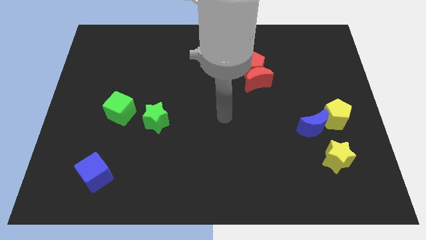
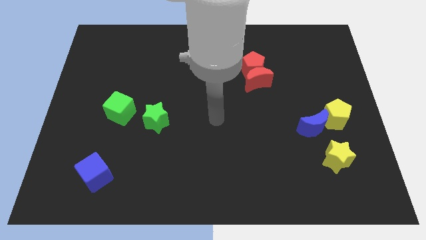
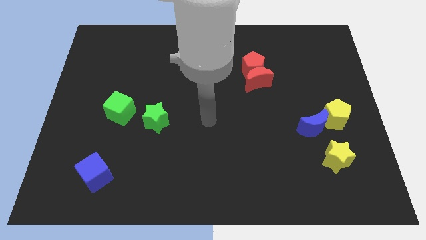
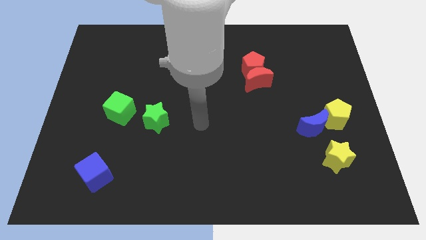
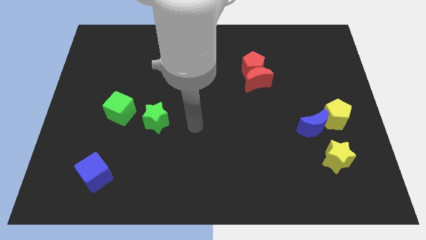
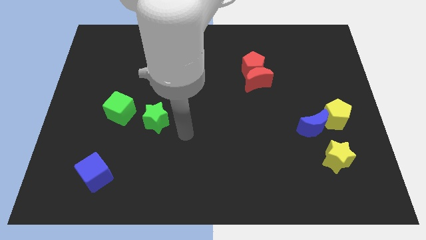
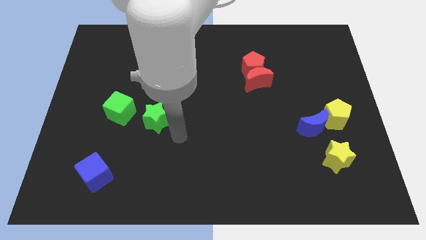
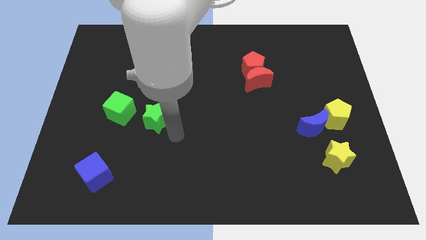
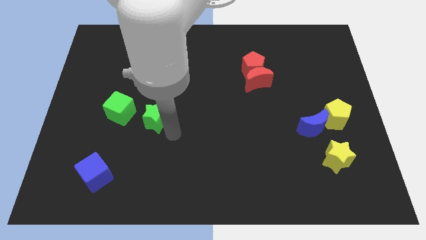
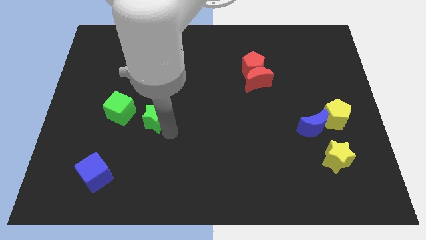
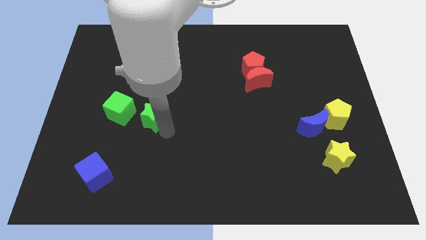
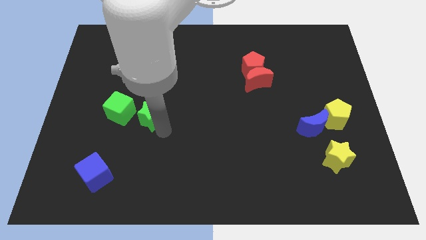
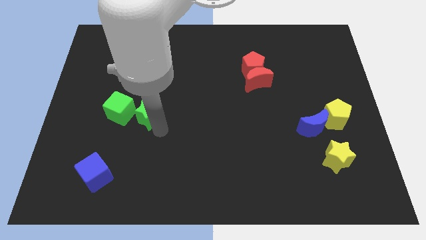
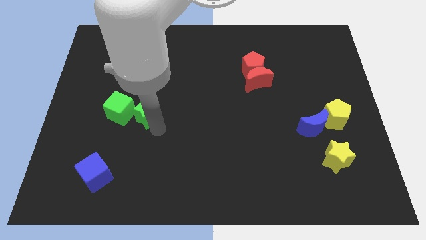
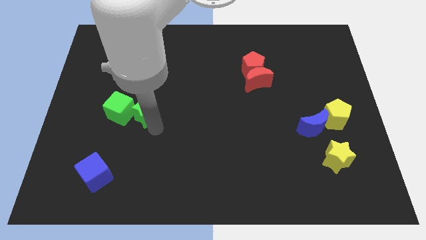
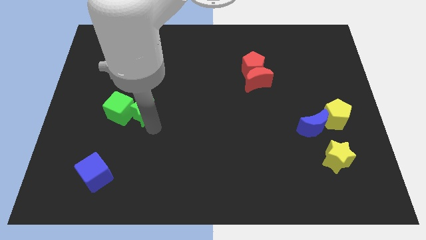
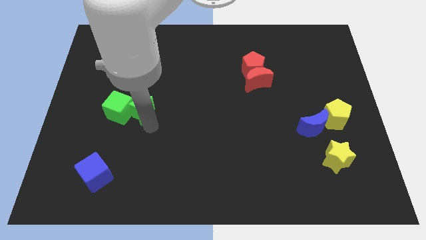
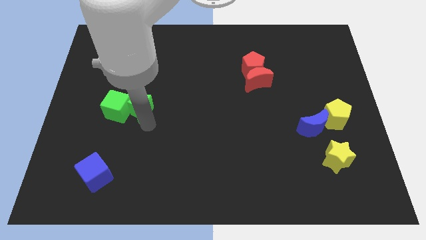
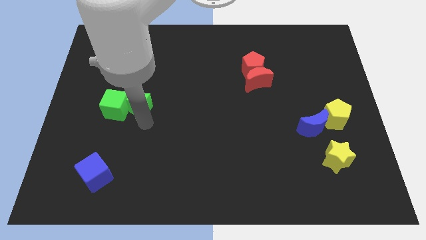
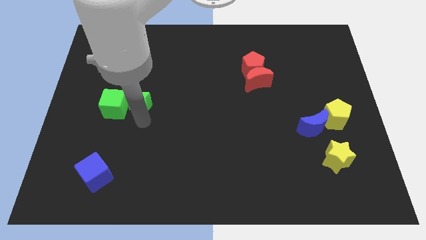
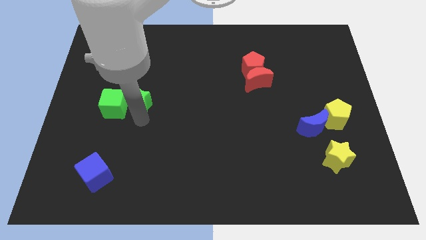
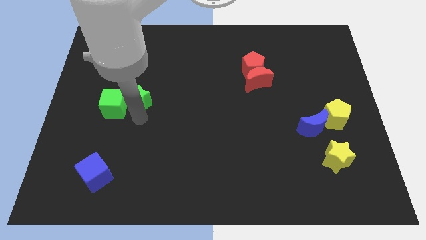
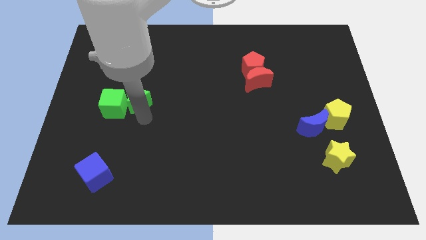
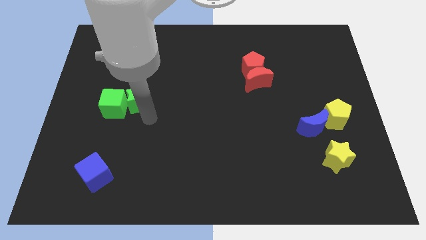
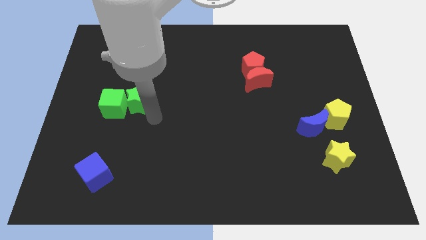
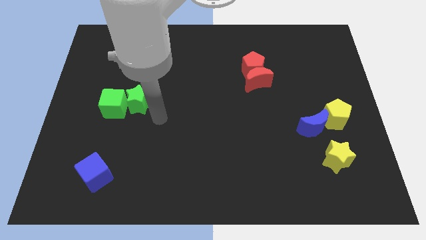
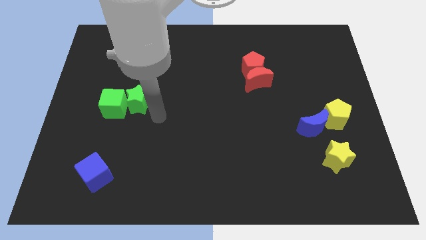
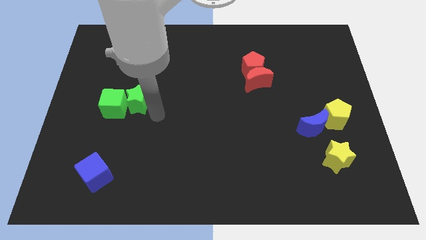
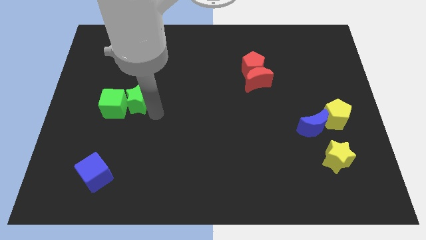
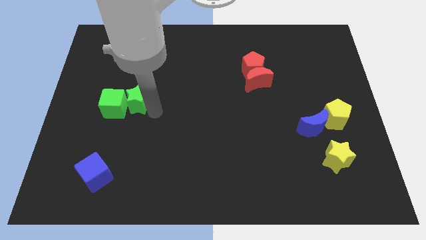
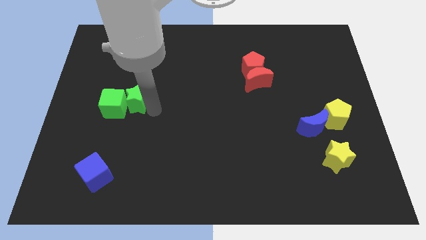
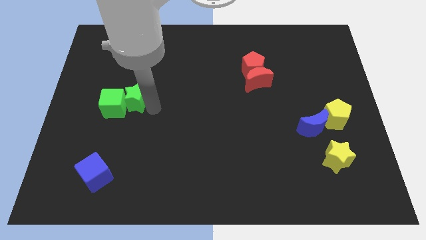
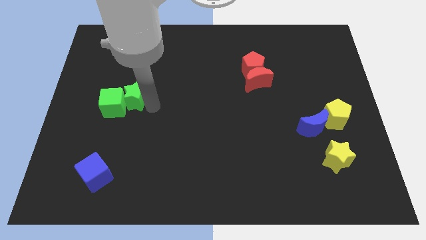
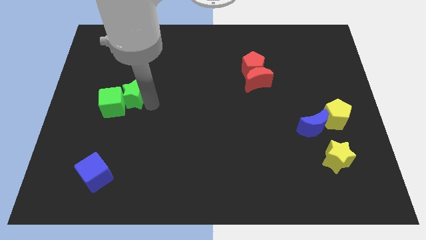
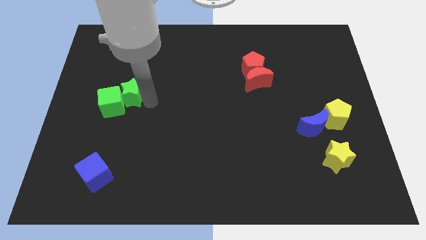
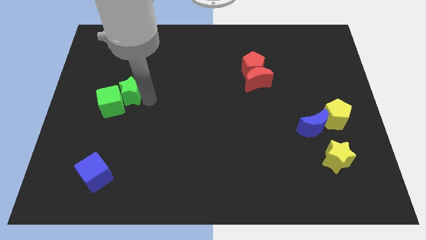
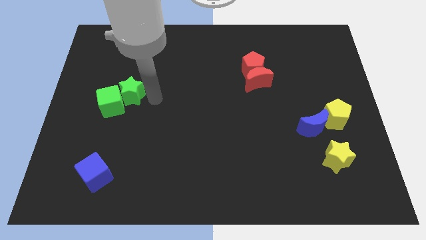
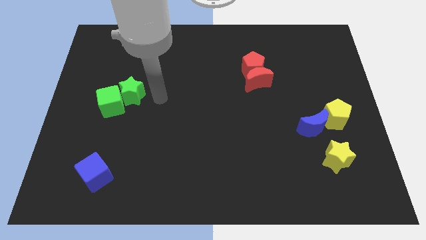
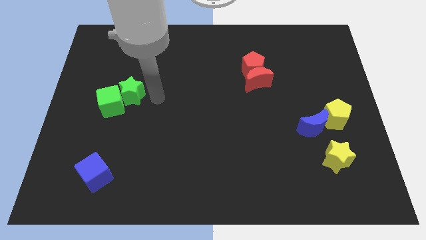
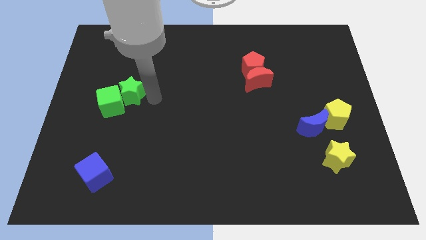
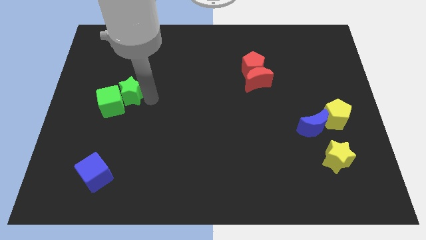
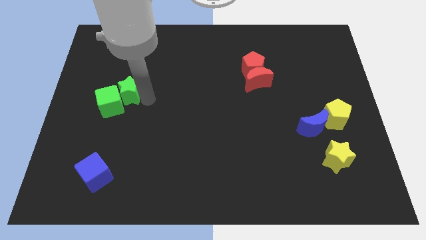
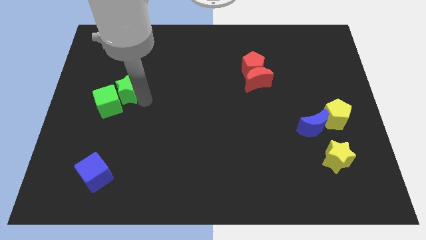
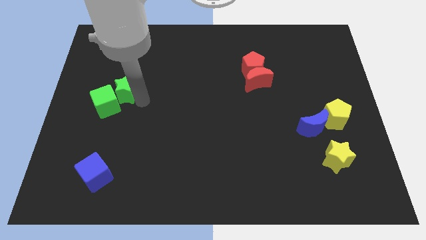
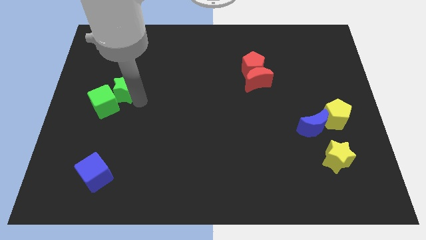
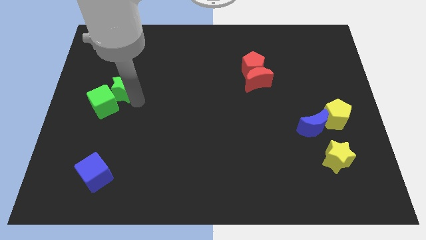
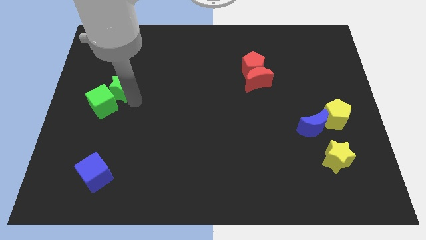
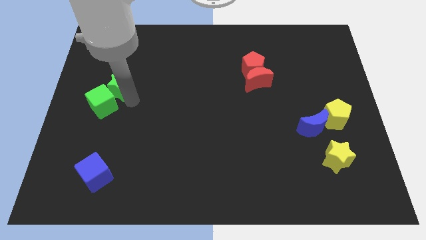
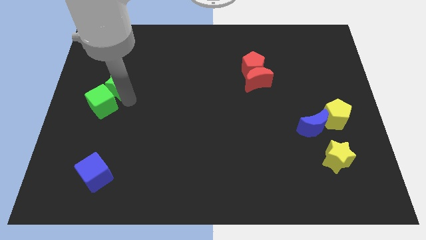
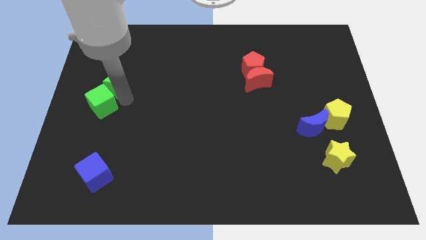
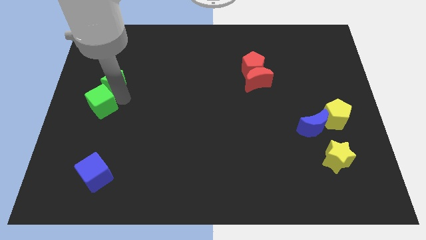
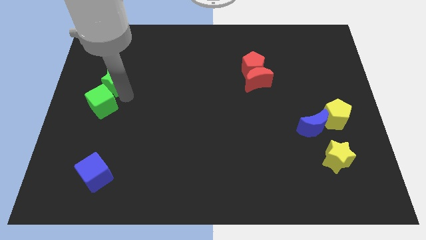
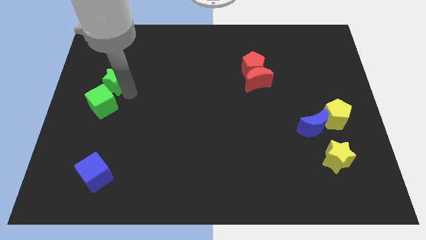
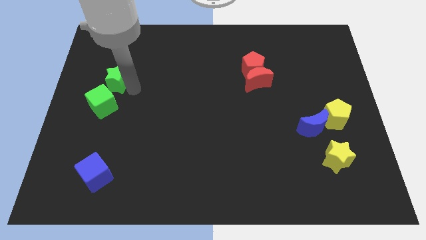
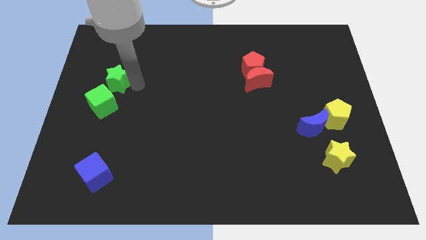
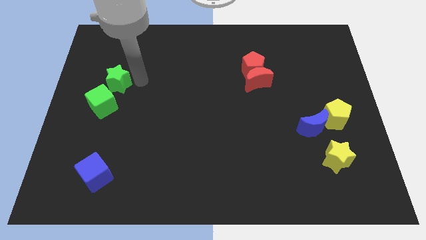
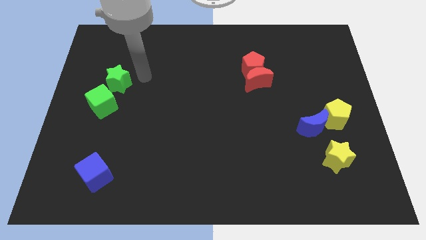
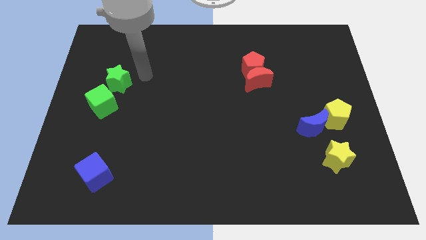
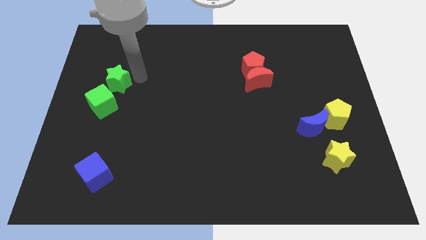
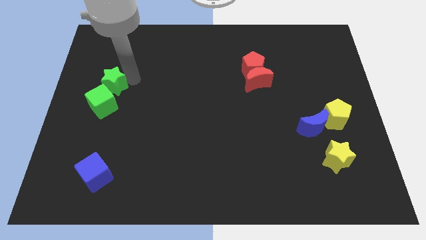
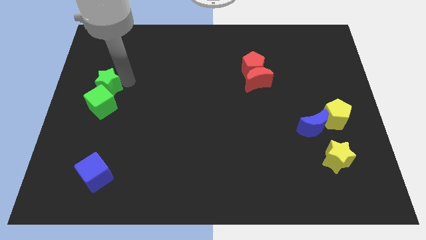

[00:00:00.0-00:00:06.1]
slide the green star to the center left

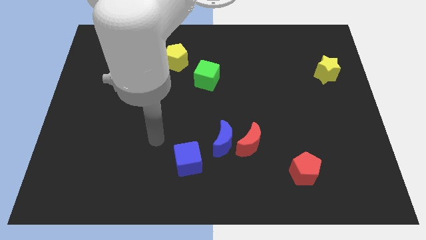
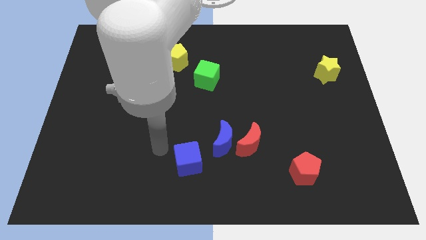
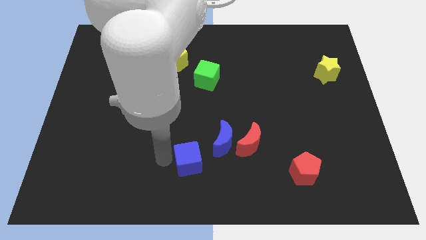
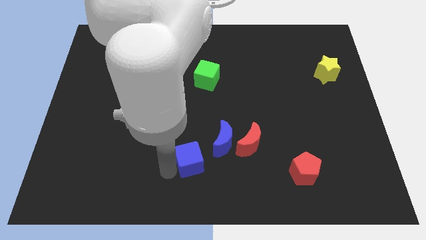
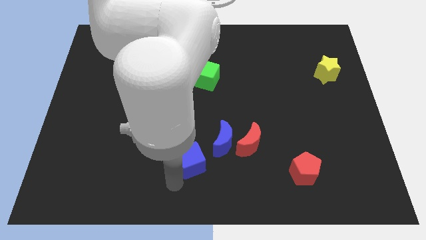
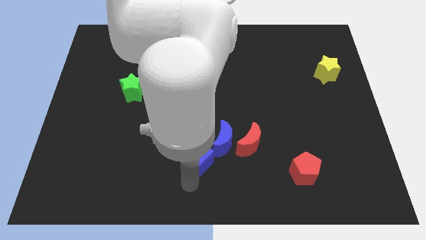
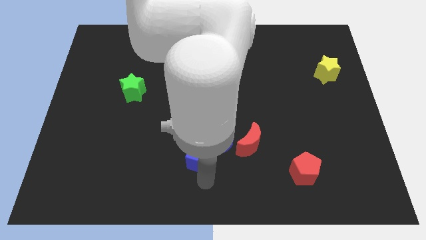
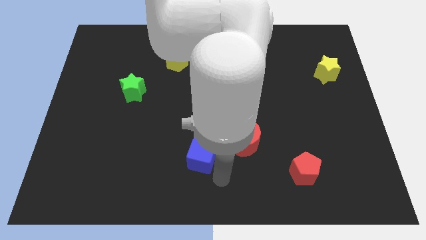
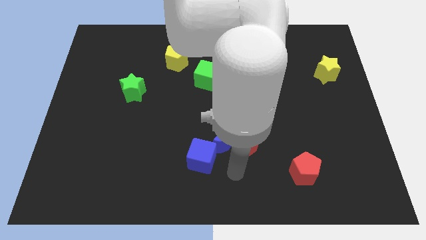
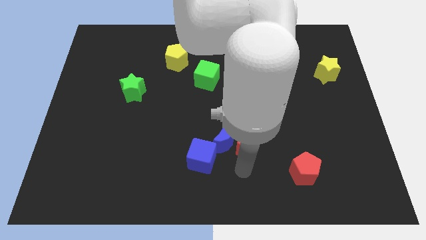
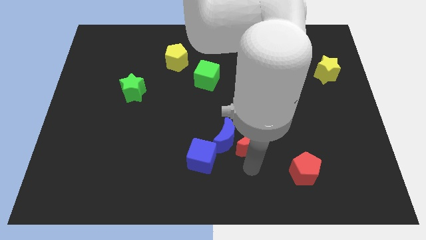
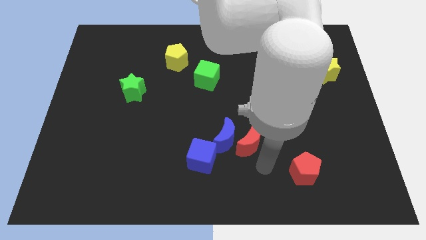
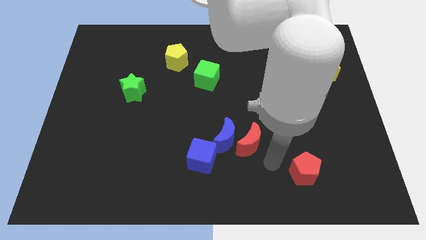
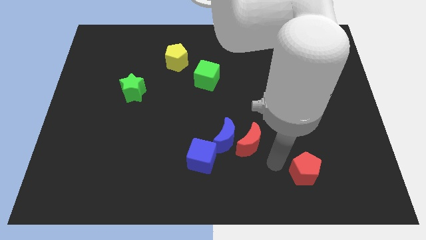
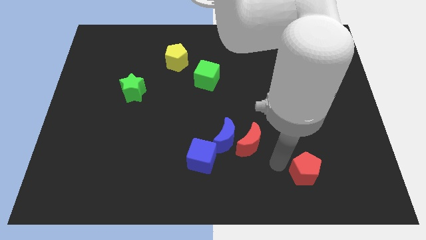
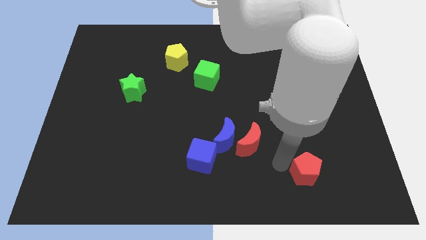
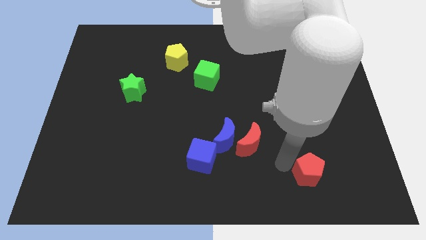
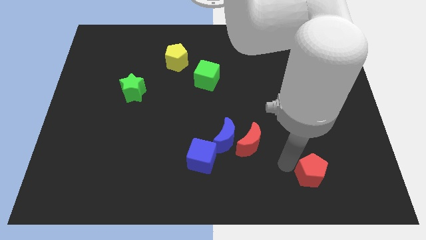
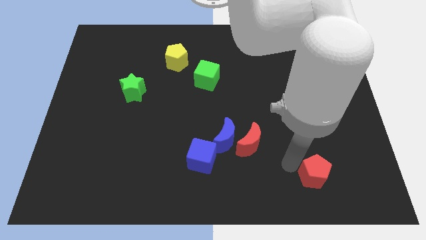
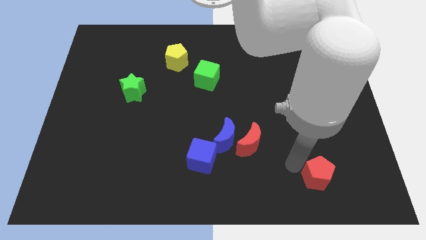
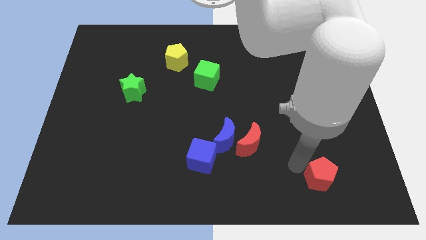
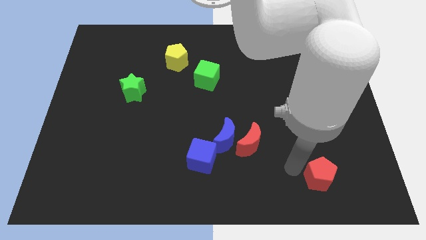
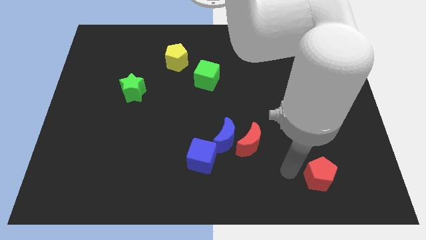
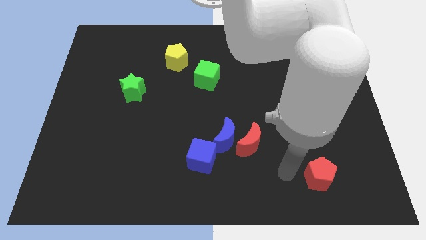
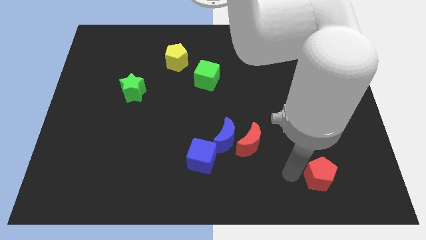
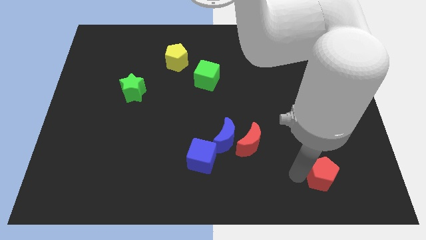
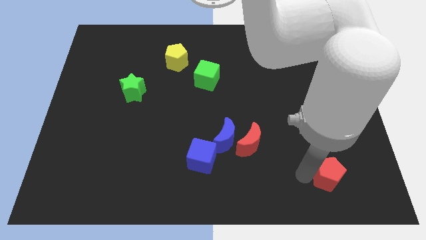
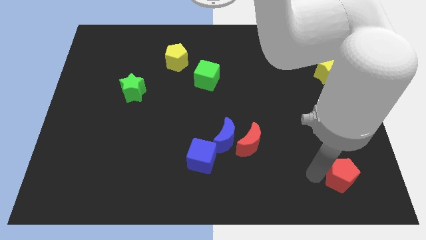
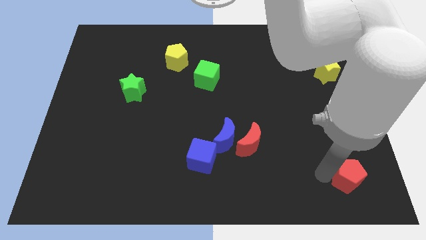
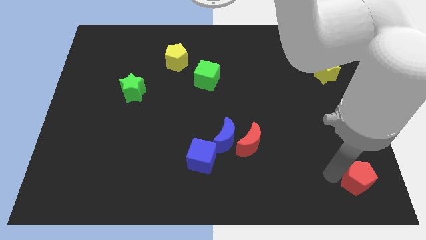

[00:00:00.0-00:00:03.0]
push the red pentagon to the bottom right corner
